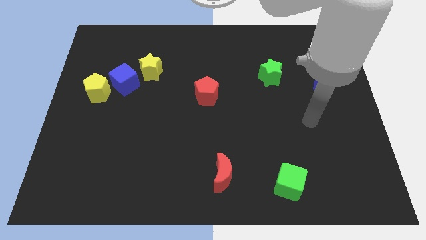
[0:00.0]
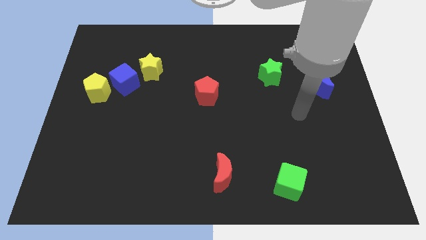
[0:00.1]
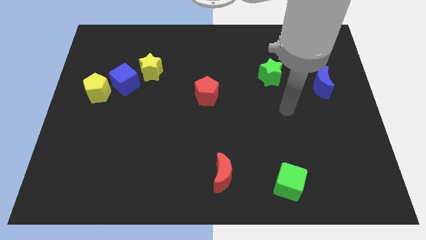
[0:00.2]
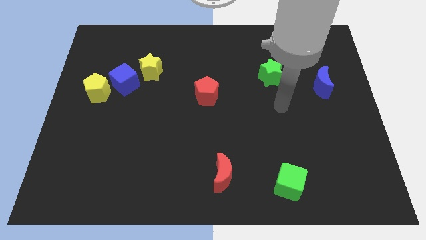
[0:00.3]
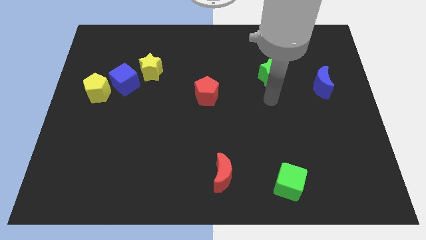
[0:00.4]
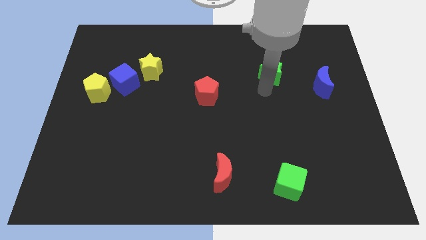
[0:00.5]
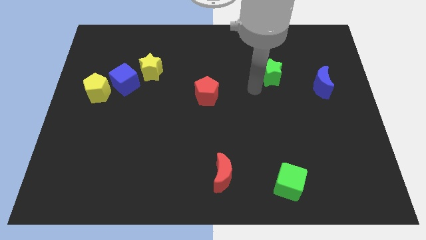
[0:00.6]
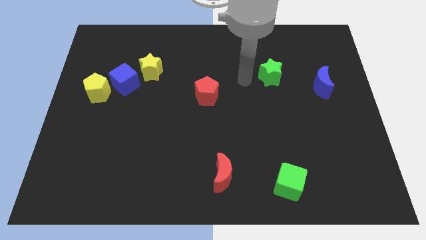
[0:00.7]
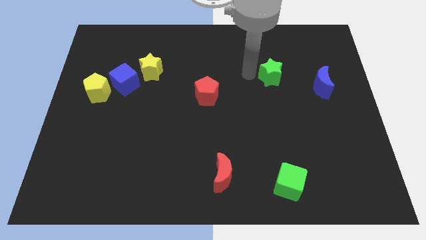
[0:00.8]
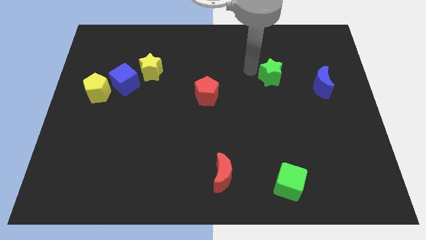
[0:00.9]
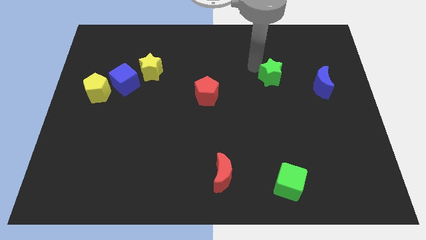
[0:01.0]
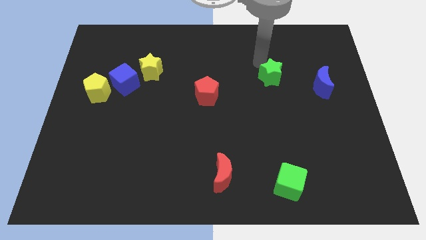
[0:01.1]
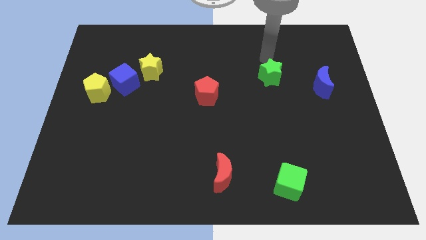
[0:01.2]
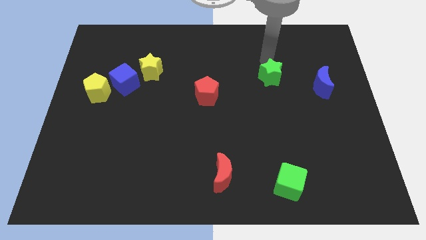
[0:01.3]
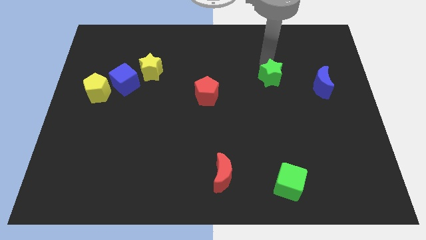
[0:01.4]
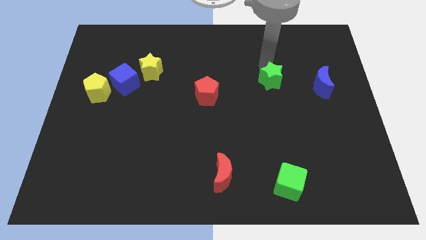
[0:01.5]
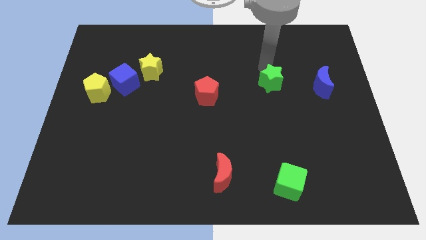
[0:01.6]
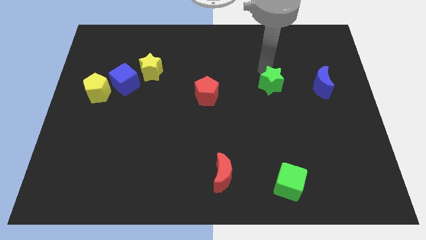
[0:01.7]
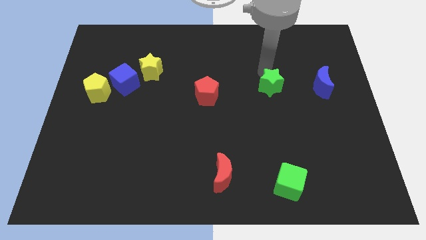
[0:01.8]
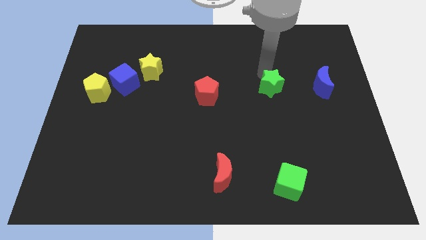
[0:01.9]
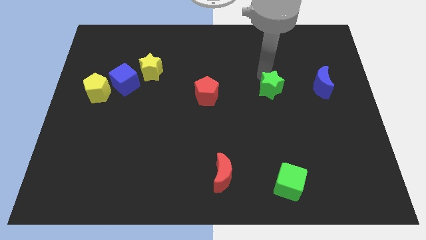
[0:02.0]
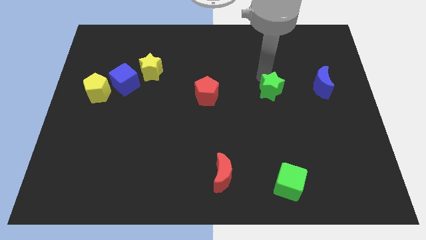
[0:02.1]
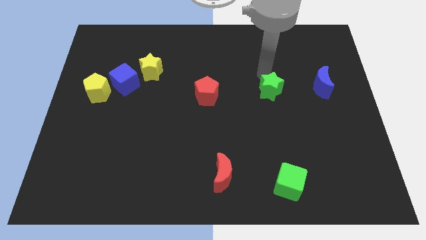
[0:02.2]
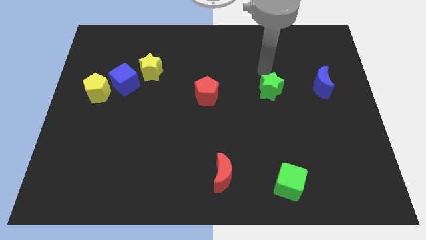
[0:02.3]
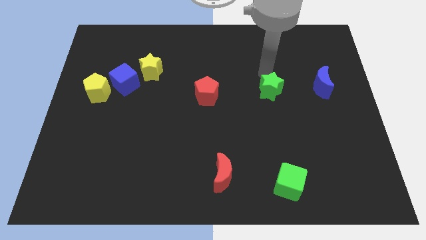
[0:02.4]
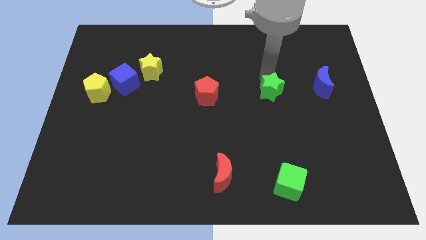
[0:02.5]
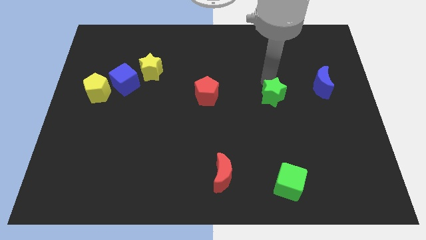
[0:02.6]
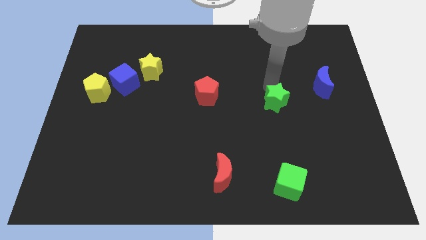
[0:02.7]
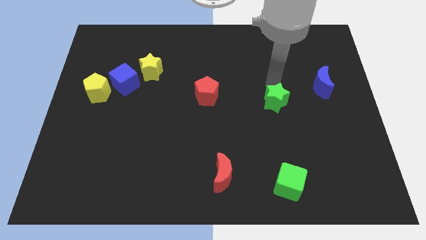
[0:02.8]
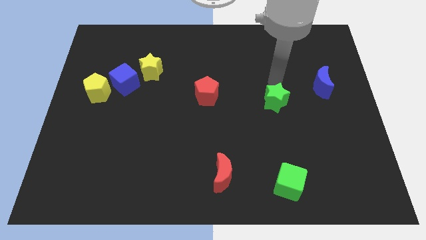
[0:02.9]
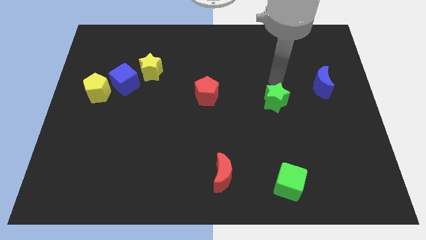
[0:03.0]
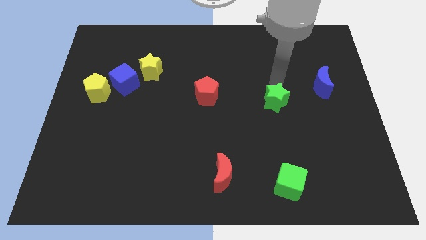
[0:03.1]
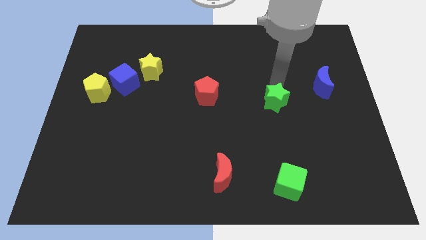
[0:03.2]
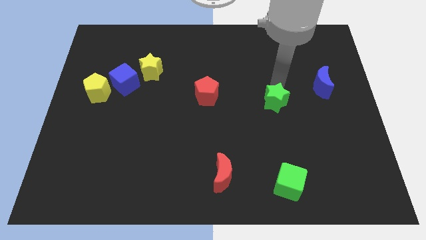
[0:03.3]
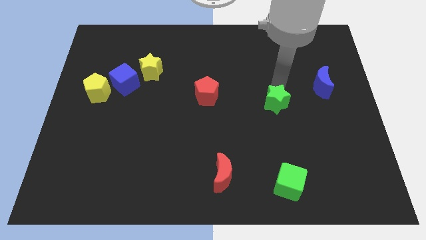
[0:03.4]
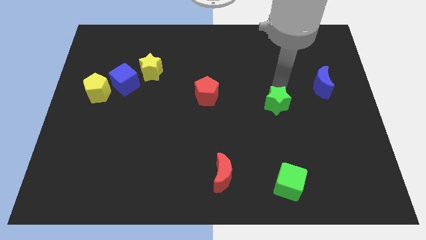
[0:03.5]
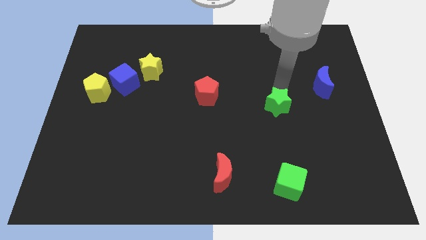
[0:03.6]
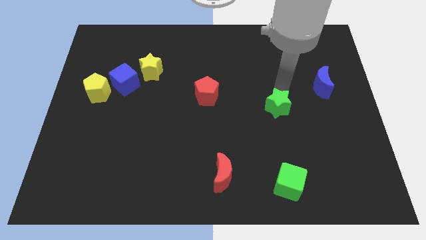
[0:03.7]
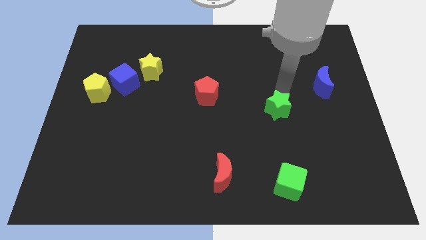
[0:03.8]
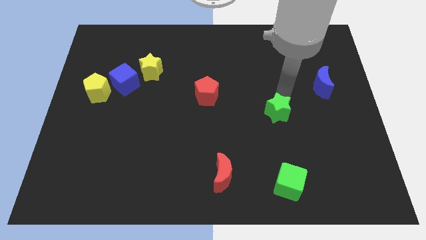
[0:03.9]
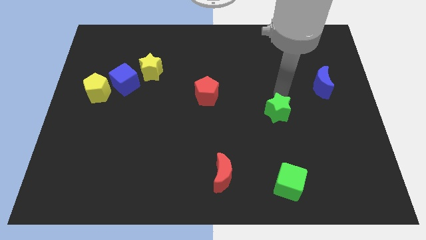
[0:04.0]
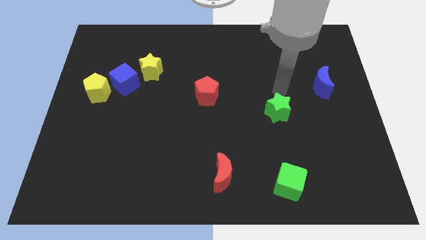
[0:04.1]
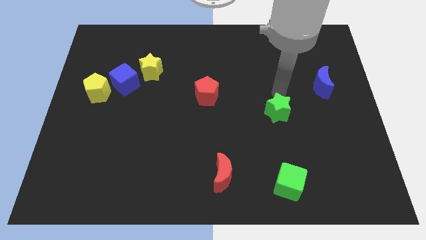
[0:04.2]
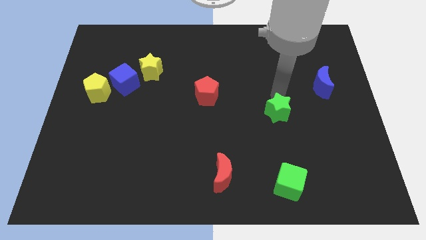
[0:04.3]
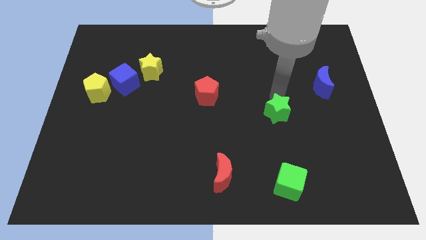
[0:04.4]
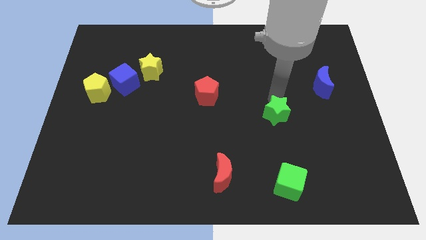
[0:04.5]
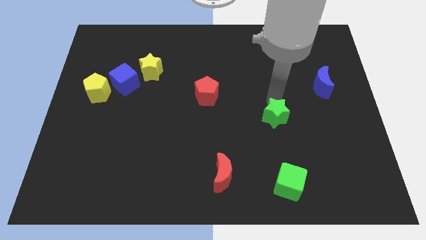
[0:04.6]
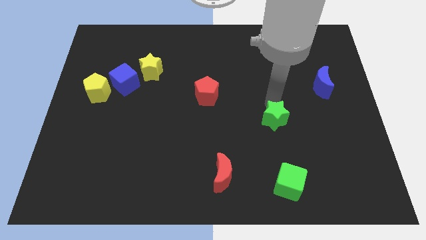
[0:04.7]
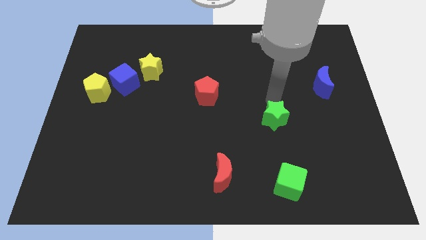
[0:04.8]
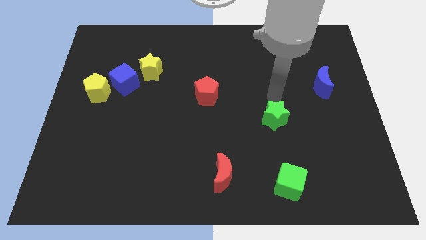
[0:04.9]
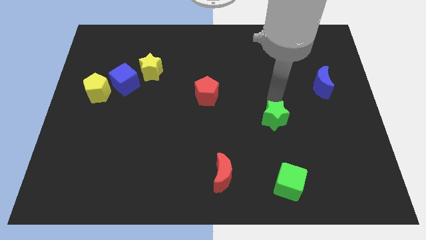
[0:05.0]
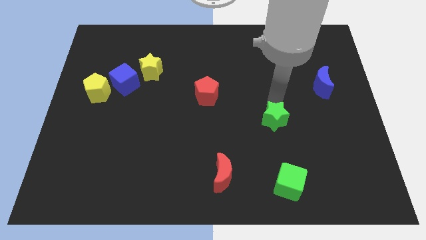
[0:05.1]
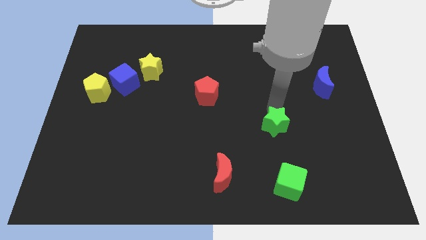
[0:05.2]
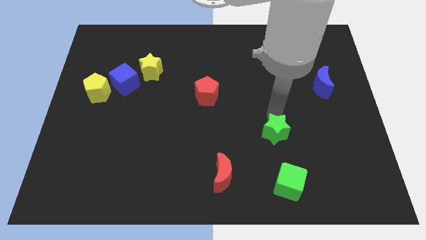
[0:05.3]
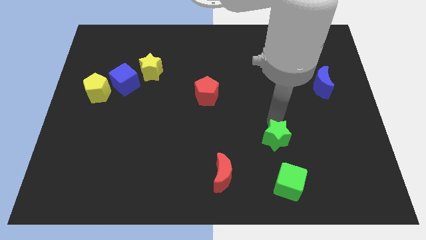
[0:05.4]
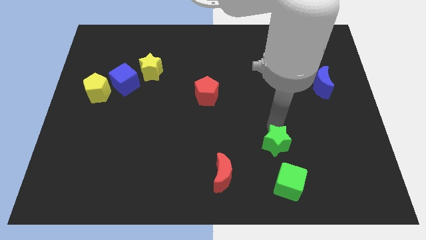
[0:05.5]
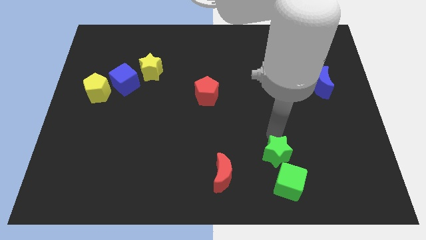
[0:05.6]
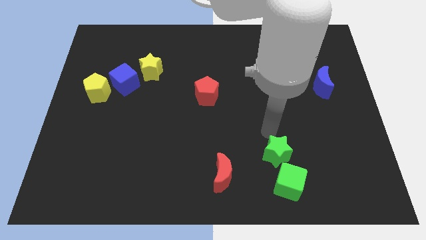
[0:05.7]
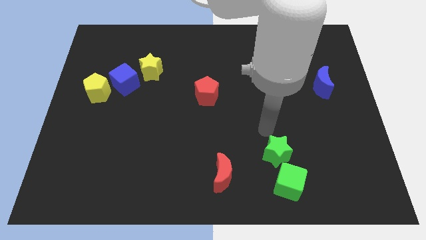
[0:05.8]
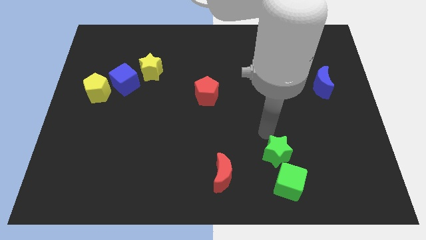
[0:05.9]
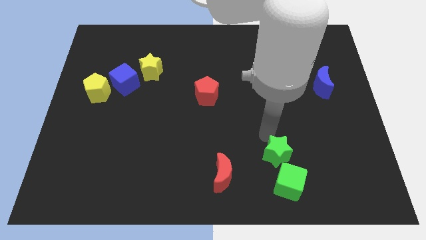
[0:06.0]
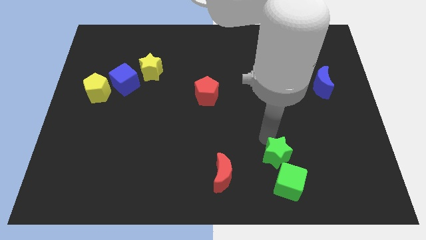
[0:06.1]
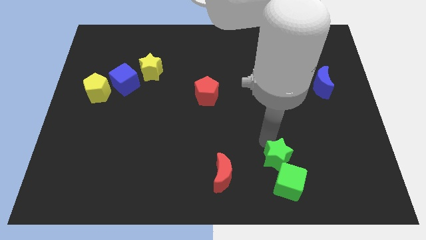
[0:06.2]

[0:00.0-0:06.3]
push the green star close to the green cube

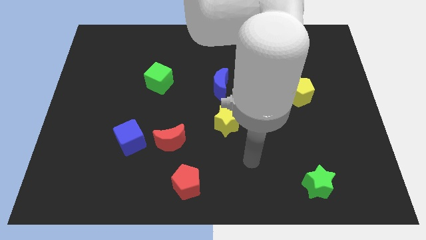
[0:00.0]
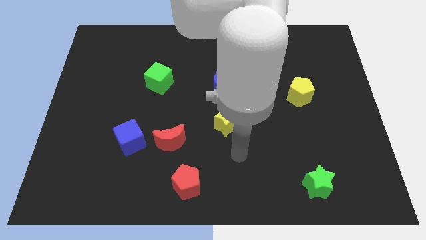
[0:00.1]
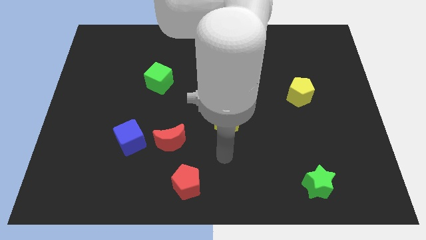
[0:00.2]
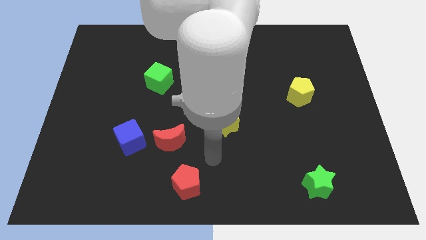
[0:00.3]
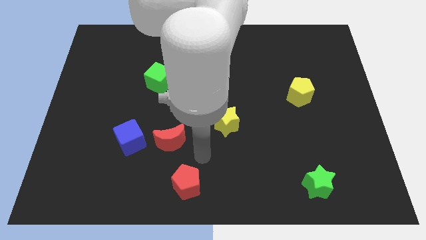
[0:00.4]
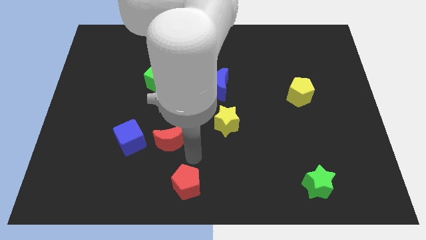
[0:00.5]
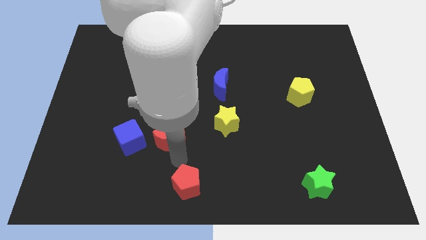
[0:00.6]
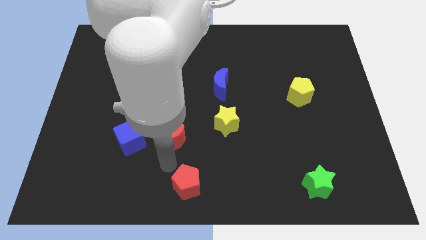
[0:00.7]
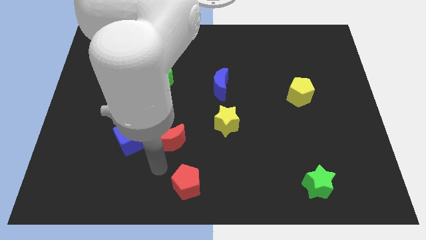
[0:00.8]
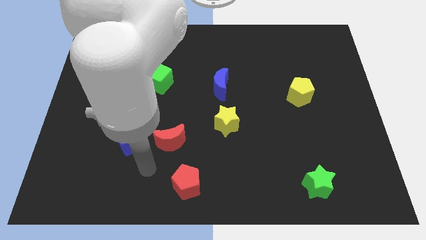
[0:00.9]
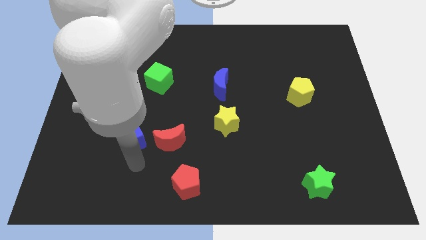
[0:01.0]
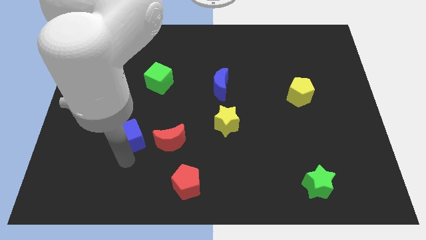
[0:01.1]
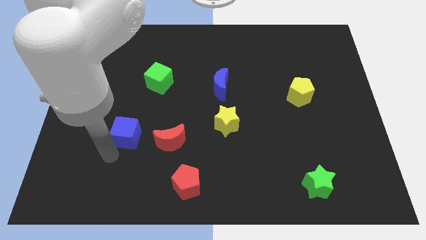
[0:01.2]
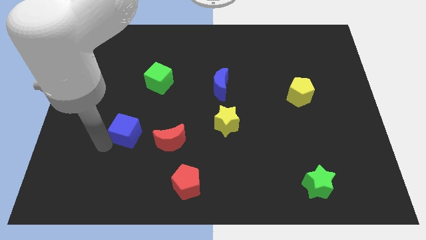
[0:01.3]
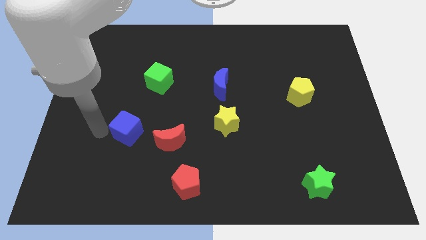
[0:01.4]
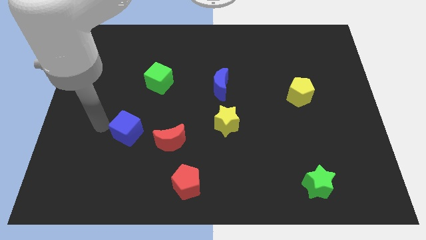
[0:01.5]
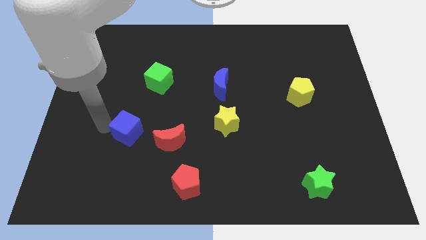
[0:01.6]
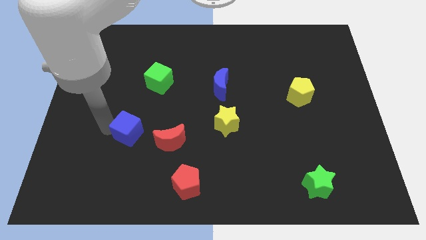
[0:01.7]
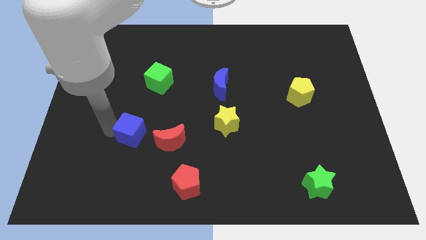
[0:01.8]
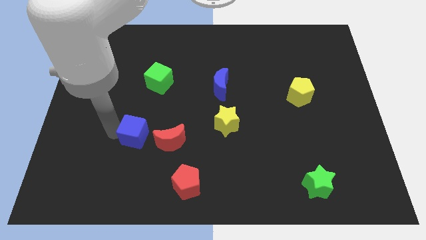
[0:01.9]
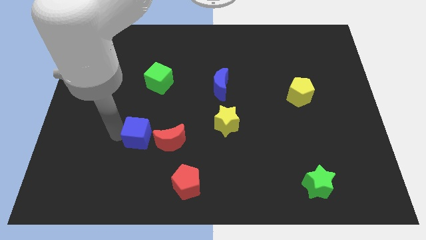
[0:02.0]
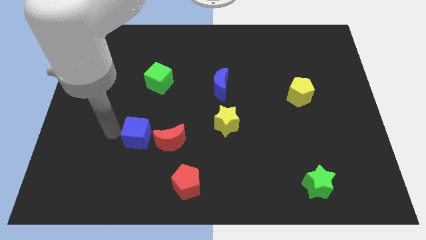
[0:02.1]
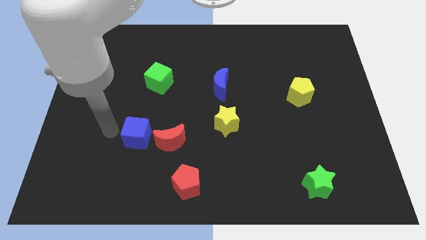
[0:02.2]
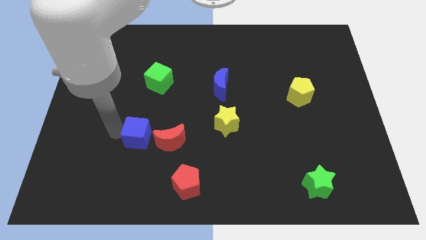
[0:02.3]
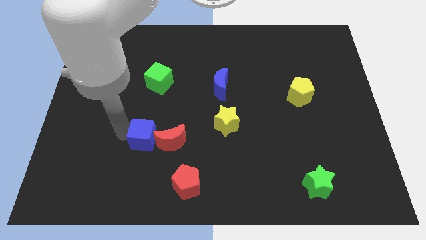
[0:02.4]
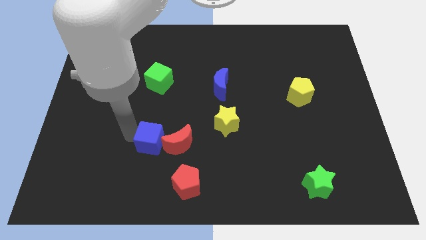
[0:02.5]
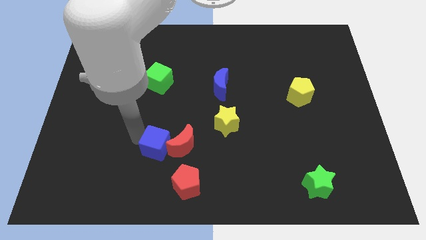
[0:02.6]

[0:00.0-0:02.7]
push the blue cube close to the red moon
